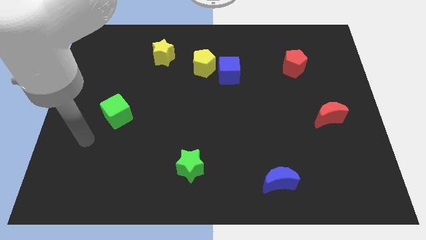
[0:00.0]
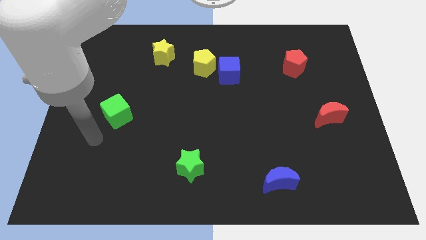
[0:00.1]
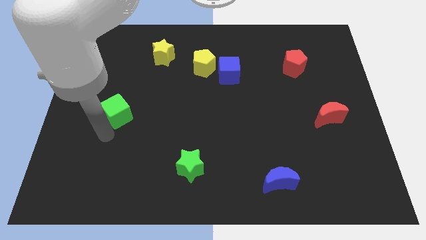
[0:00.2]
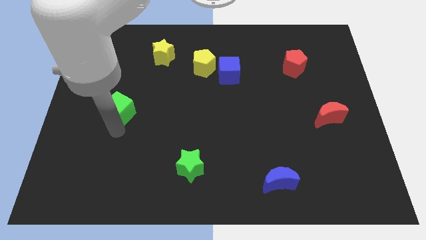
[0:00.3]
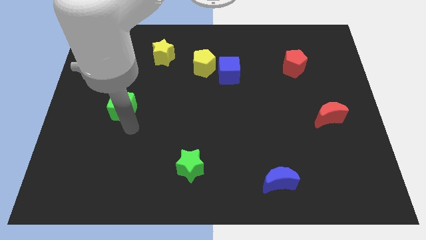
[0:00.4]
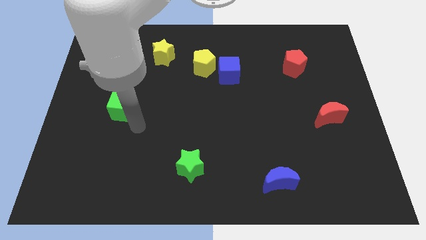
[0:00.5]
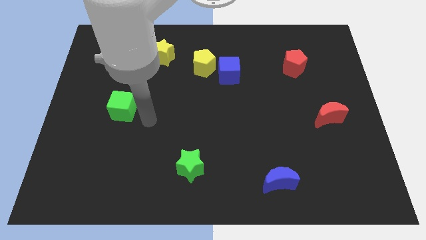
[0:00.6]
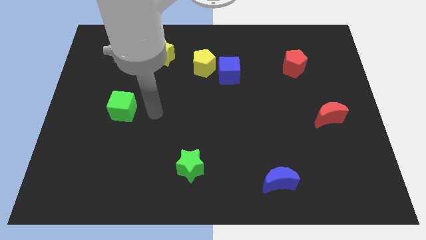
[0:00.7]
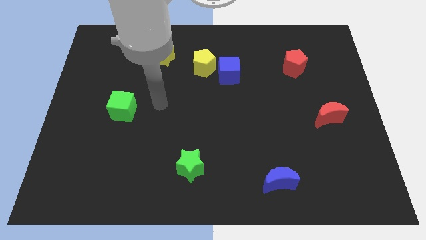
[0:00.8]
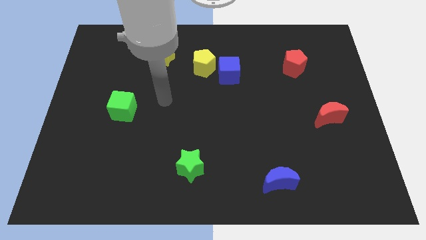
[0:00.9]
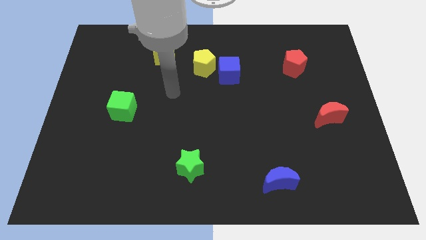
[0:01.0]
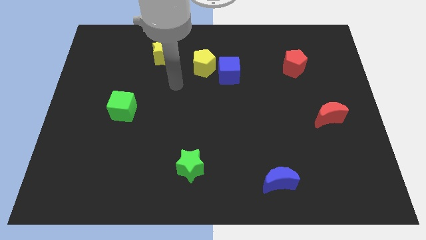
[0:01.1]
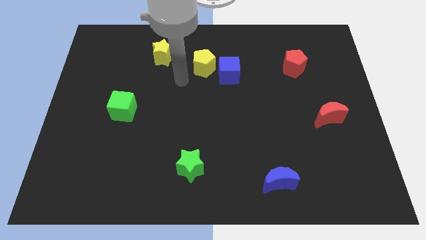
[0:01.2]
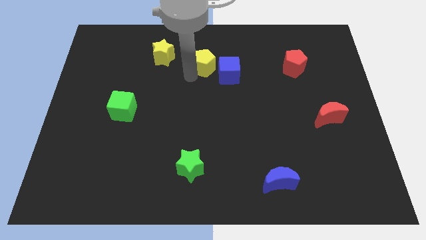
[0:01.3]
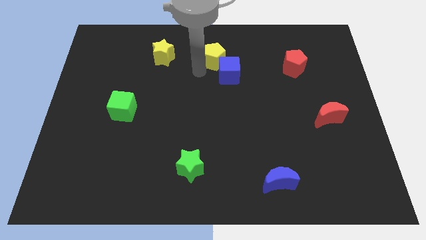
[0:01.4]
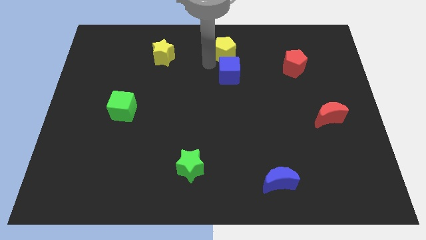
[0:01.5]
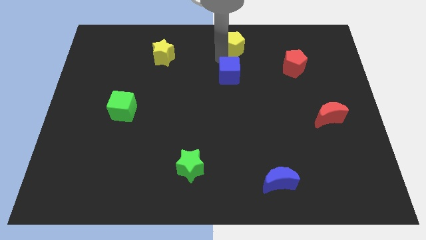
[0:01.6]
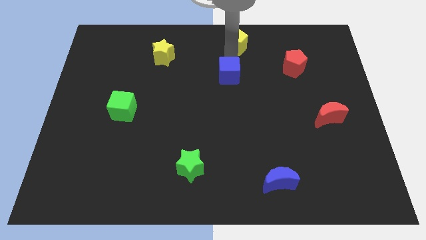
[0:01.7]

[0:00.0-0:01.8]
move the blue cube away from the yellow pentagon

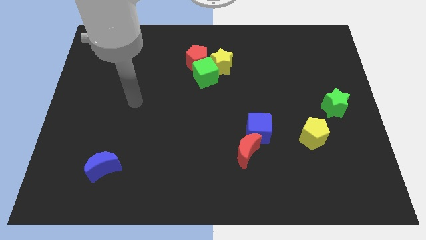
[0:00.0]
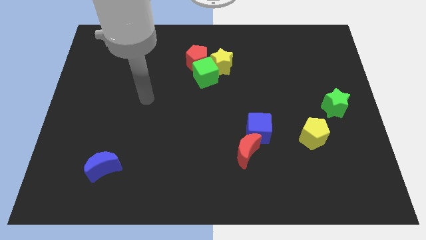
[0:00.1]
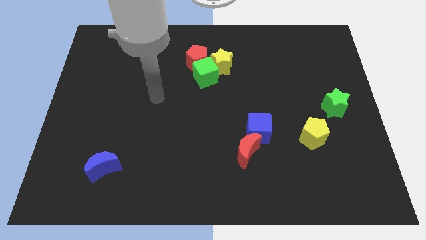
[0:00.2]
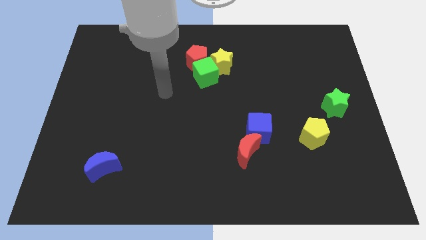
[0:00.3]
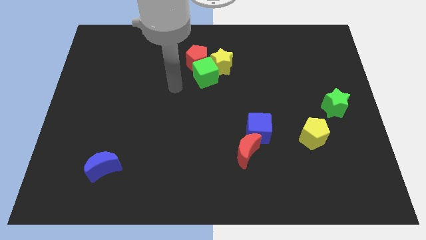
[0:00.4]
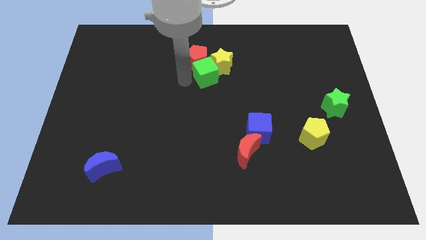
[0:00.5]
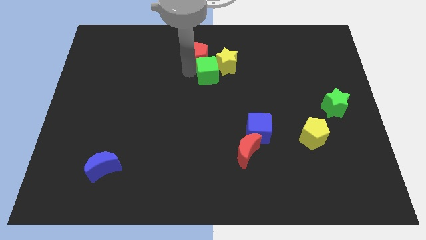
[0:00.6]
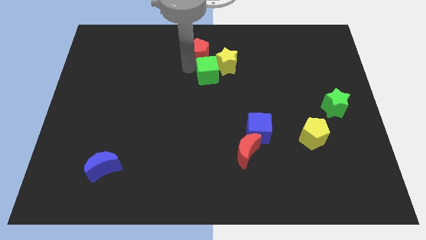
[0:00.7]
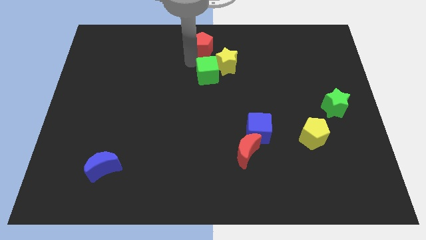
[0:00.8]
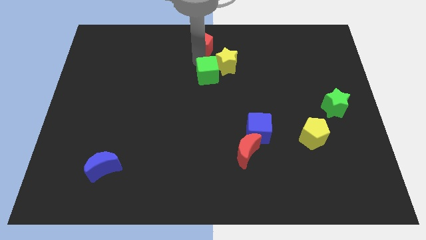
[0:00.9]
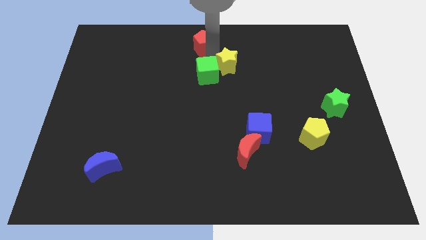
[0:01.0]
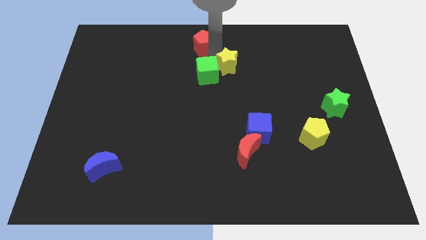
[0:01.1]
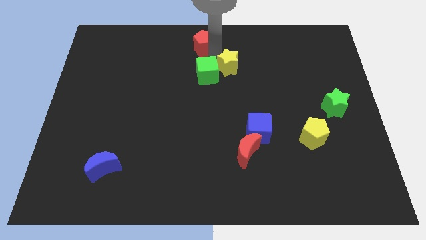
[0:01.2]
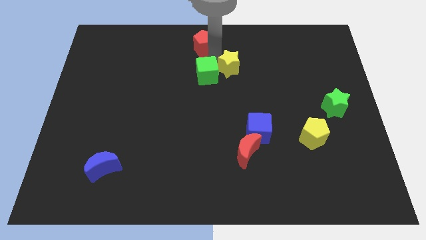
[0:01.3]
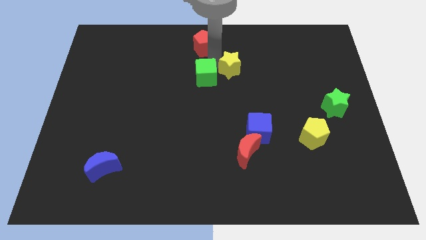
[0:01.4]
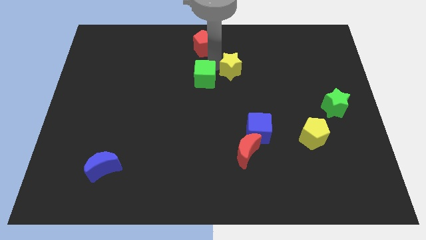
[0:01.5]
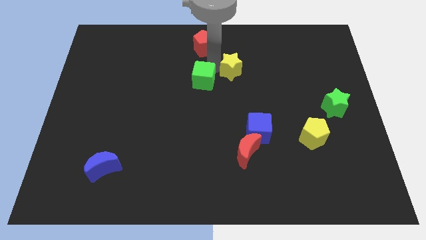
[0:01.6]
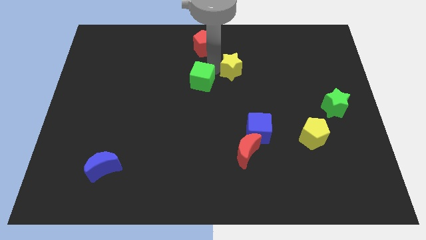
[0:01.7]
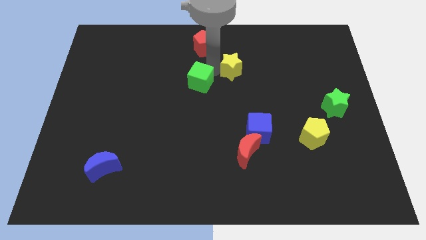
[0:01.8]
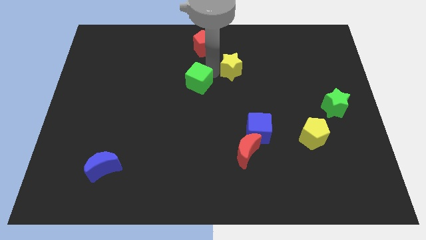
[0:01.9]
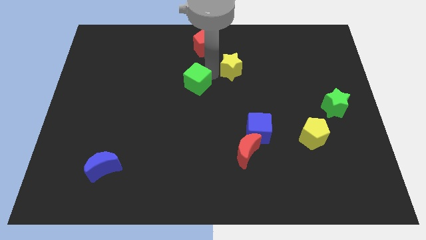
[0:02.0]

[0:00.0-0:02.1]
pull the green cube apart from the red pentagon and yellow star

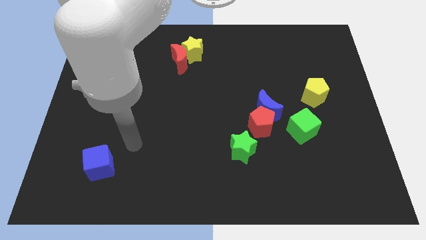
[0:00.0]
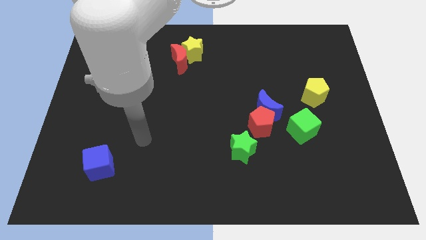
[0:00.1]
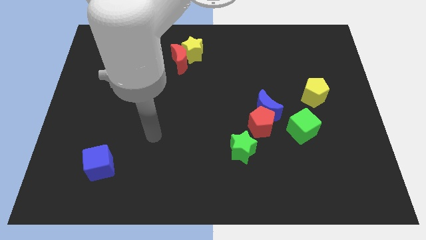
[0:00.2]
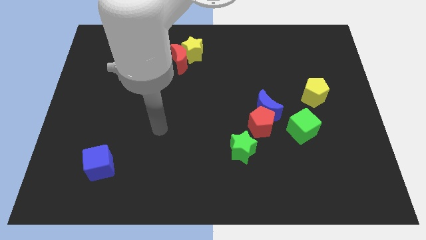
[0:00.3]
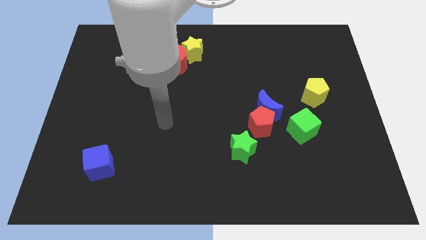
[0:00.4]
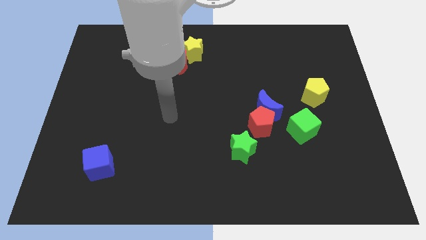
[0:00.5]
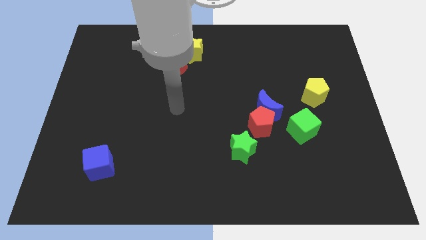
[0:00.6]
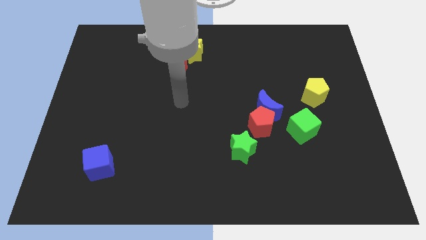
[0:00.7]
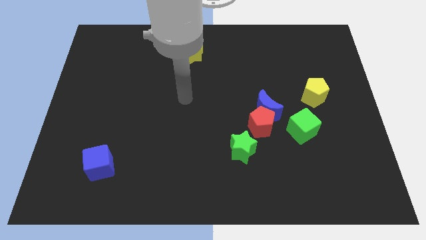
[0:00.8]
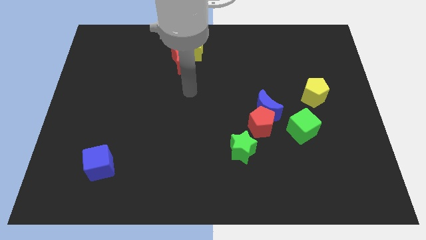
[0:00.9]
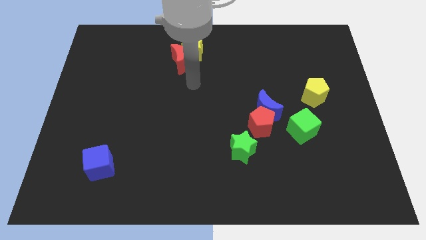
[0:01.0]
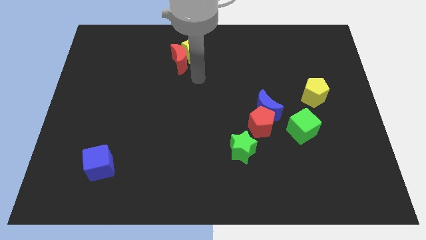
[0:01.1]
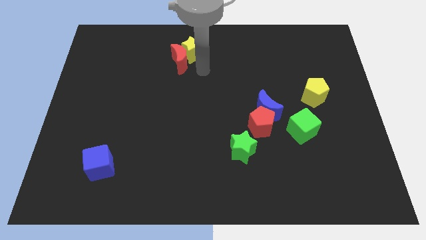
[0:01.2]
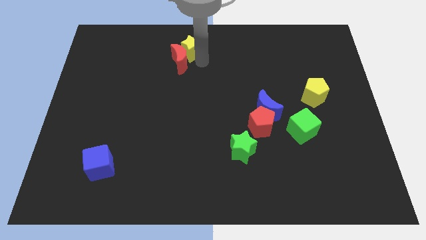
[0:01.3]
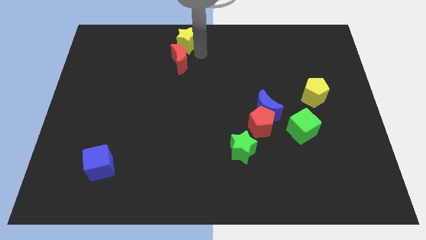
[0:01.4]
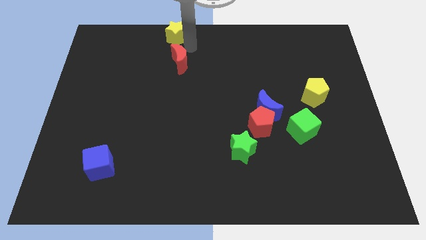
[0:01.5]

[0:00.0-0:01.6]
move the red moon away from the yellow star

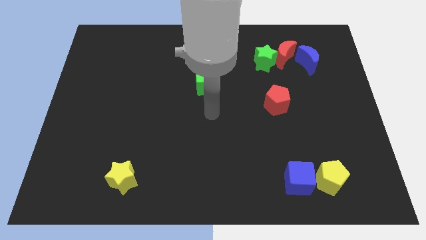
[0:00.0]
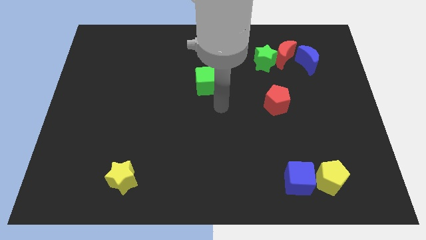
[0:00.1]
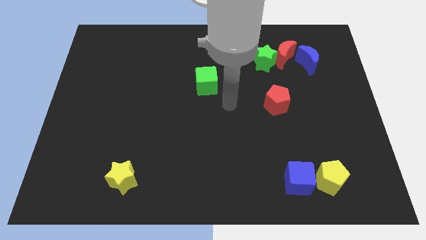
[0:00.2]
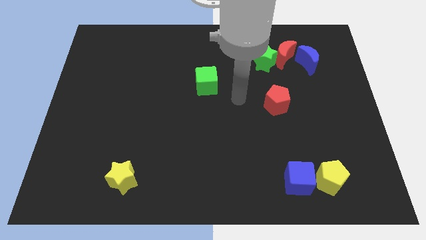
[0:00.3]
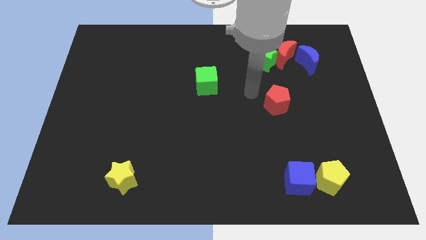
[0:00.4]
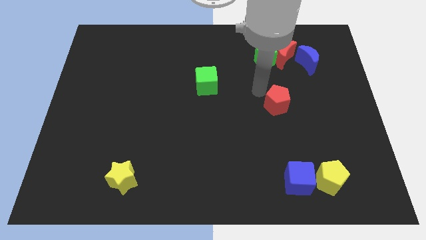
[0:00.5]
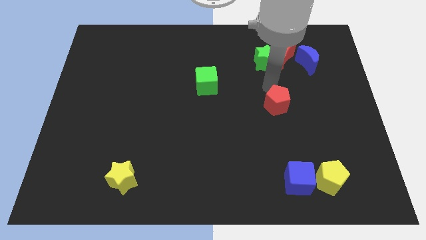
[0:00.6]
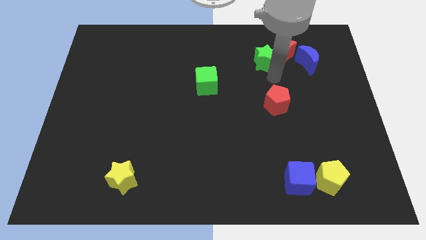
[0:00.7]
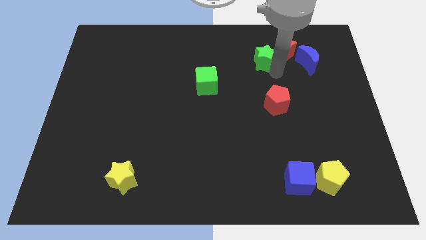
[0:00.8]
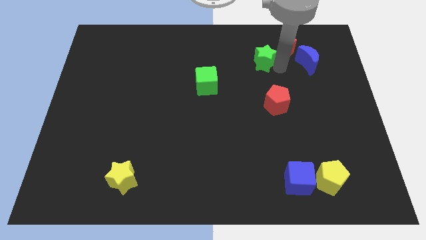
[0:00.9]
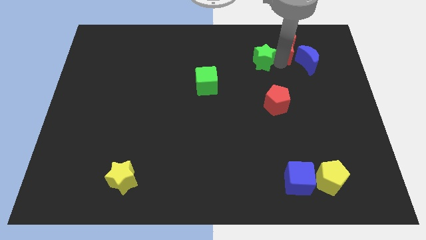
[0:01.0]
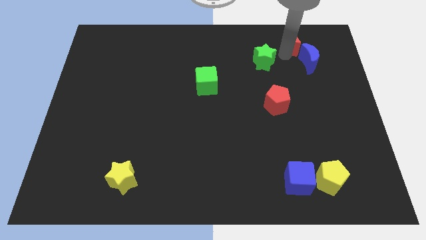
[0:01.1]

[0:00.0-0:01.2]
pull the green star apart from the red moon

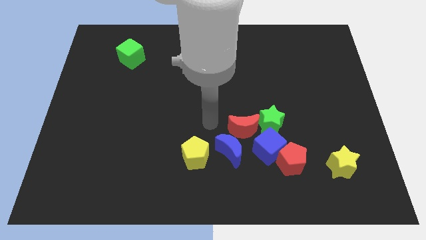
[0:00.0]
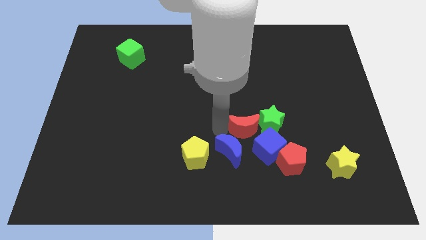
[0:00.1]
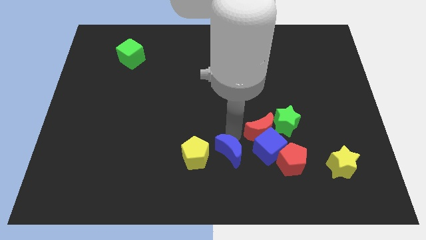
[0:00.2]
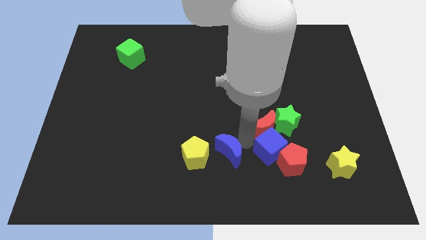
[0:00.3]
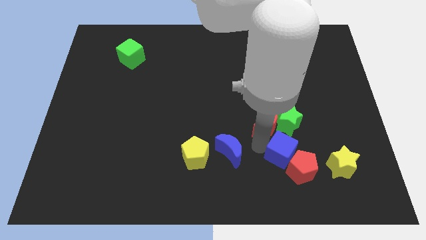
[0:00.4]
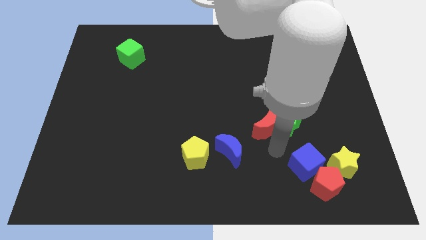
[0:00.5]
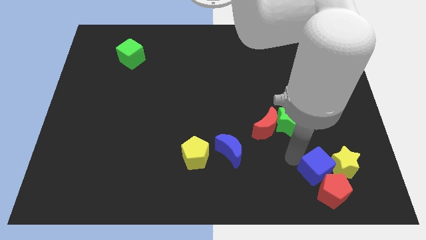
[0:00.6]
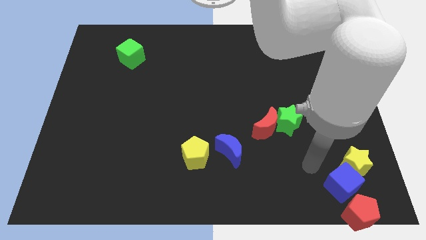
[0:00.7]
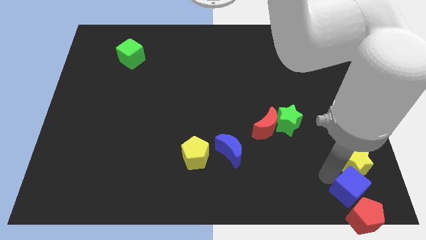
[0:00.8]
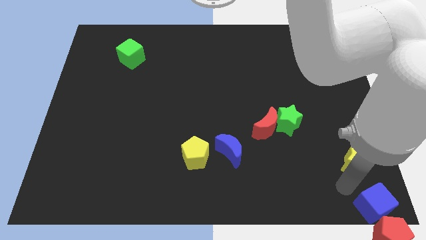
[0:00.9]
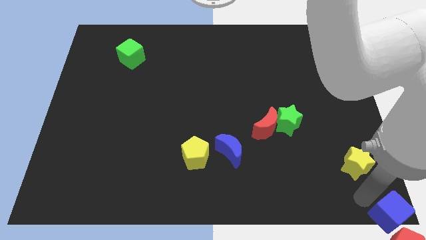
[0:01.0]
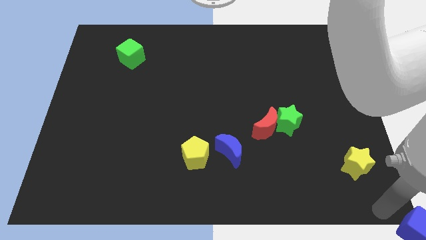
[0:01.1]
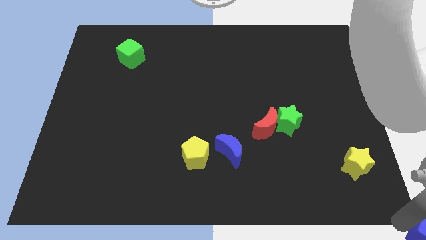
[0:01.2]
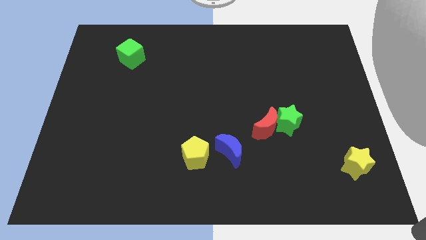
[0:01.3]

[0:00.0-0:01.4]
pull the red pentagon apart from the blue cube

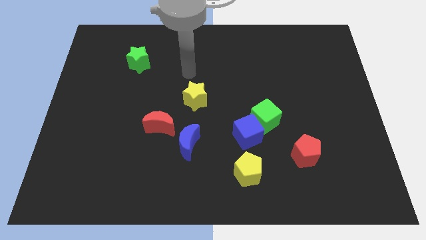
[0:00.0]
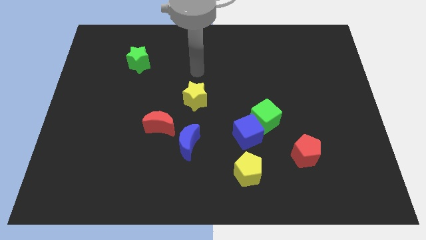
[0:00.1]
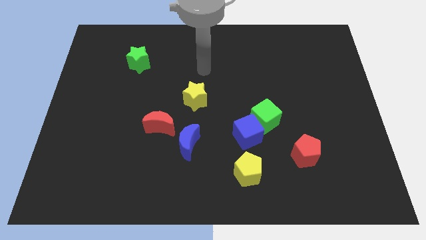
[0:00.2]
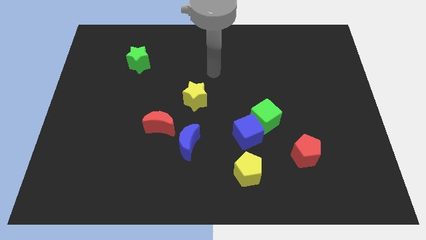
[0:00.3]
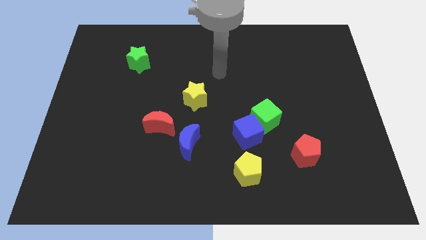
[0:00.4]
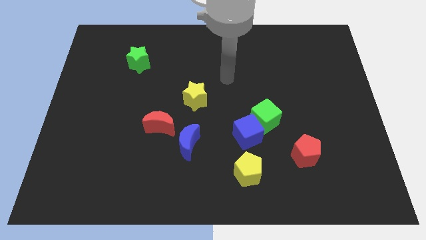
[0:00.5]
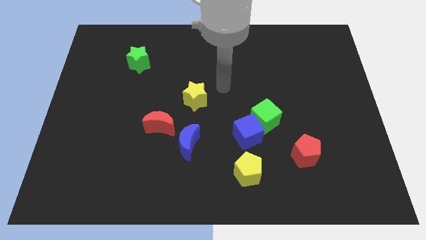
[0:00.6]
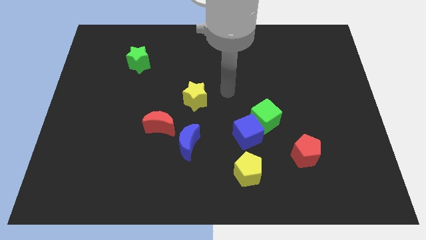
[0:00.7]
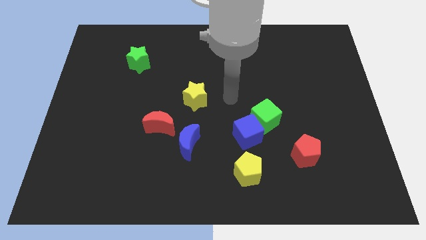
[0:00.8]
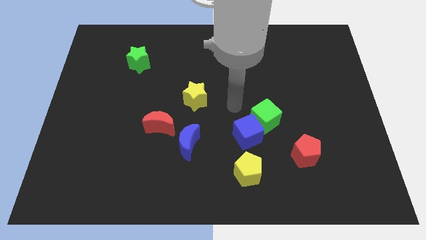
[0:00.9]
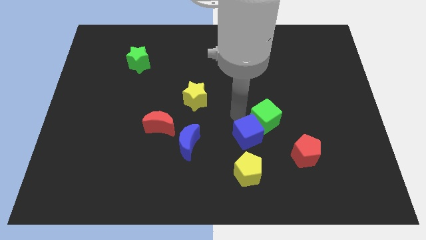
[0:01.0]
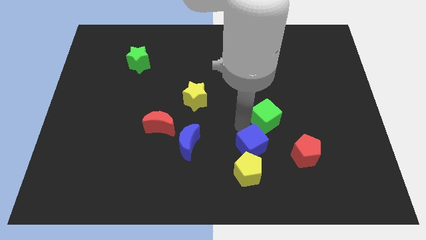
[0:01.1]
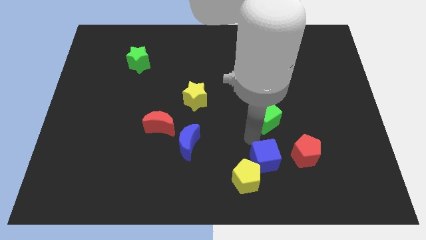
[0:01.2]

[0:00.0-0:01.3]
separate the green cube from the blue cube
